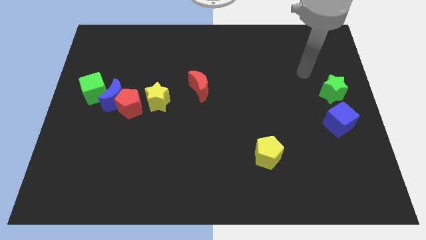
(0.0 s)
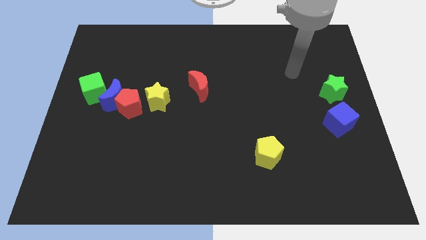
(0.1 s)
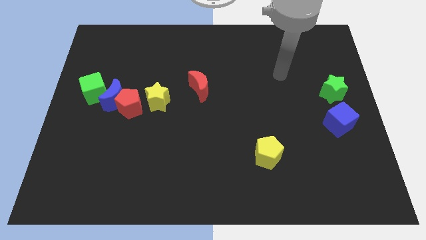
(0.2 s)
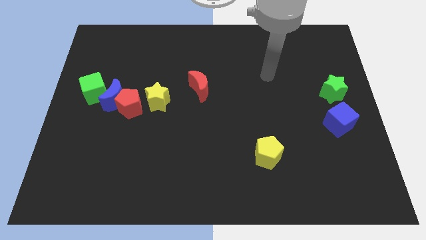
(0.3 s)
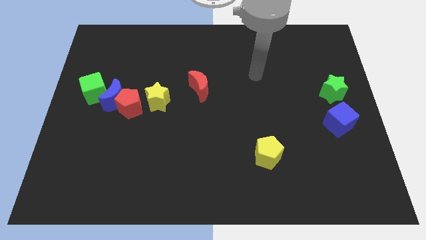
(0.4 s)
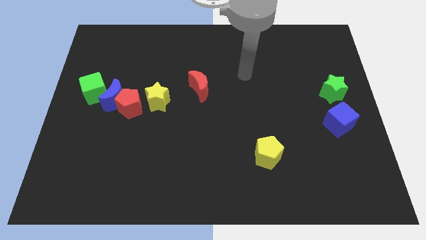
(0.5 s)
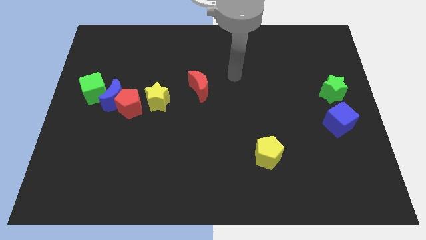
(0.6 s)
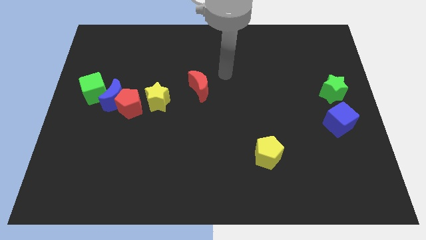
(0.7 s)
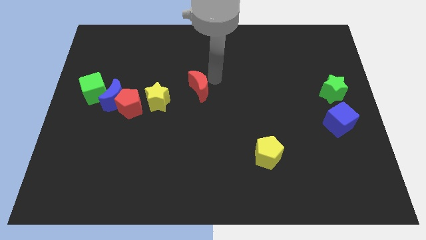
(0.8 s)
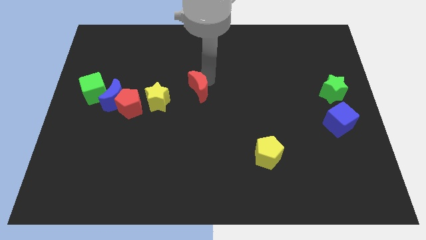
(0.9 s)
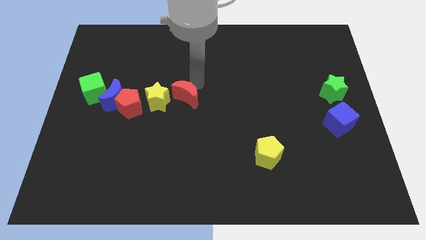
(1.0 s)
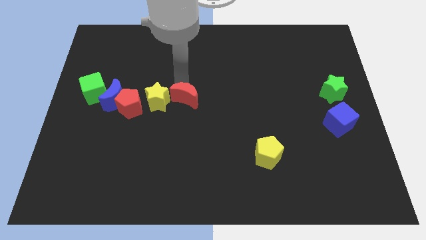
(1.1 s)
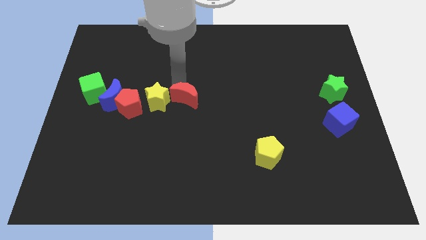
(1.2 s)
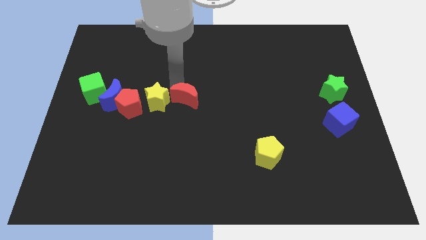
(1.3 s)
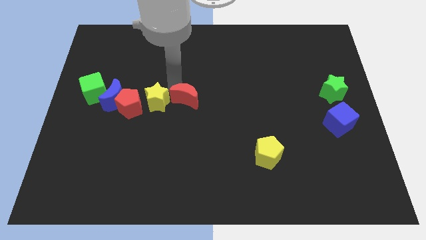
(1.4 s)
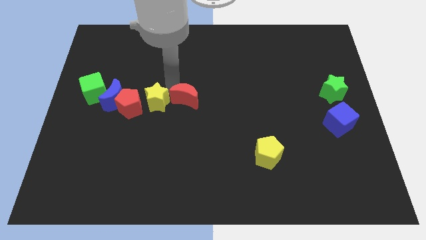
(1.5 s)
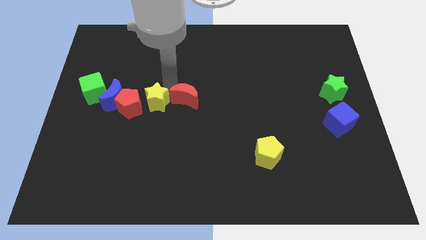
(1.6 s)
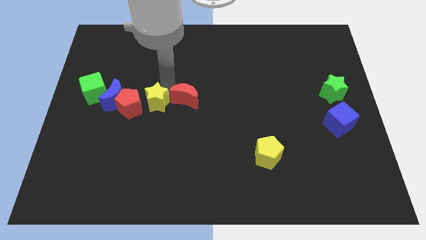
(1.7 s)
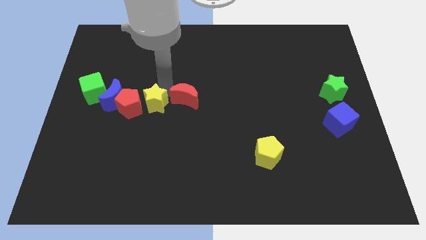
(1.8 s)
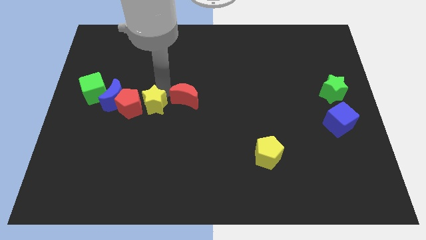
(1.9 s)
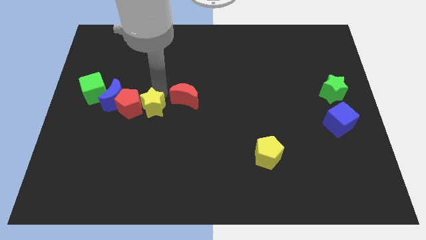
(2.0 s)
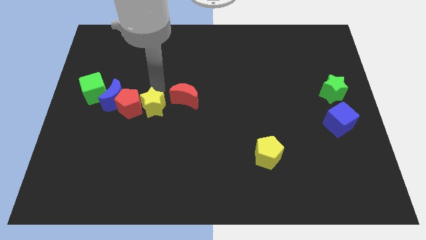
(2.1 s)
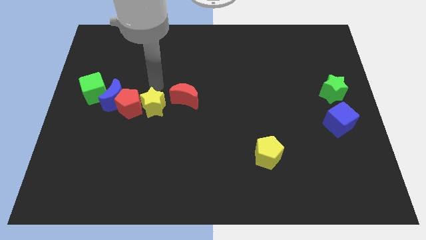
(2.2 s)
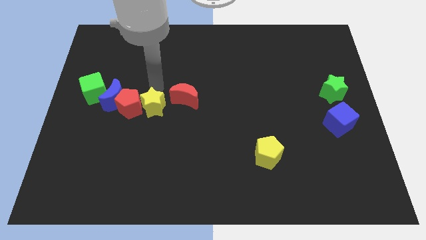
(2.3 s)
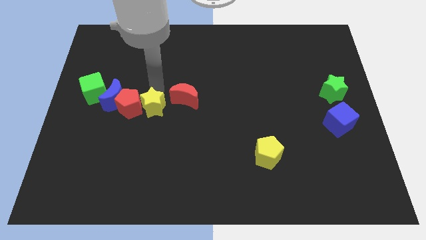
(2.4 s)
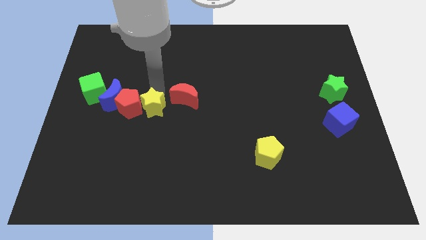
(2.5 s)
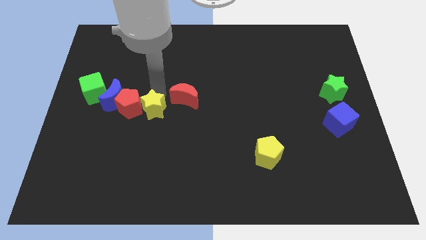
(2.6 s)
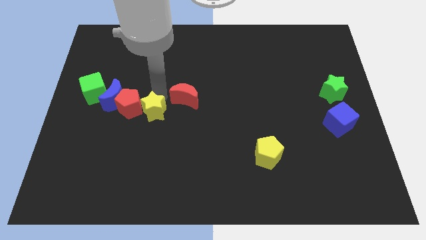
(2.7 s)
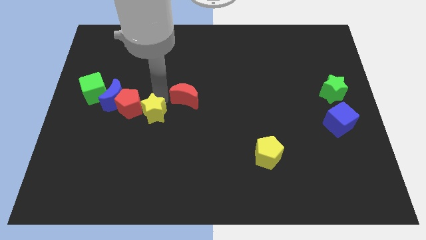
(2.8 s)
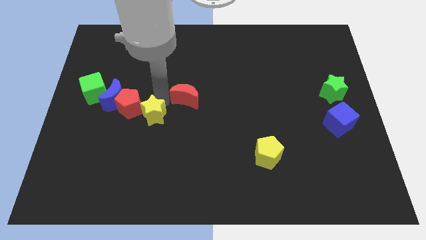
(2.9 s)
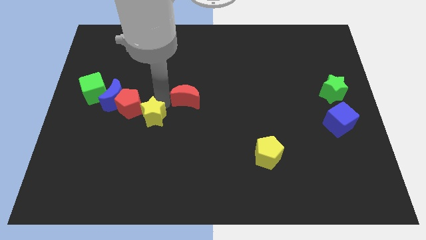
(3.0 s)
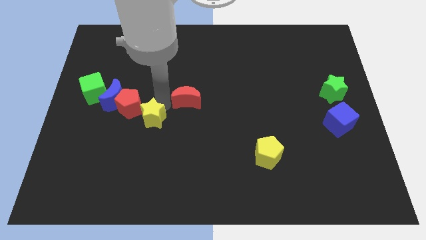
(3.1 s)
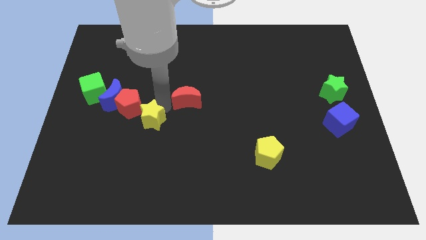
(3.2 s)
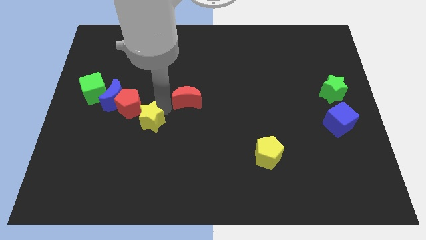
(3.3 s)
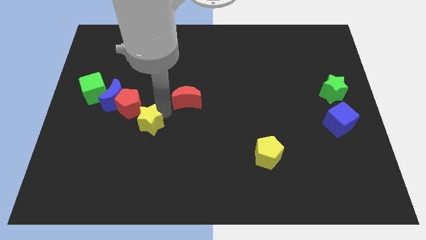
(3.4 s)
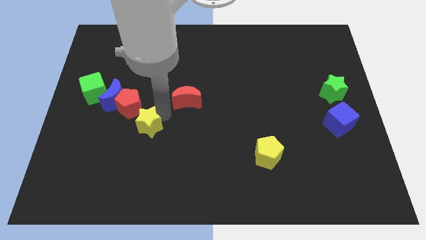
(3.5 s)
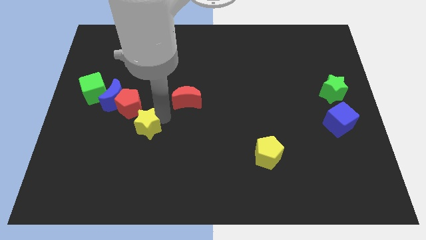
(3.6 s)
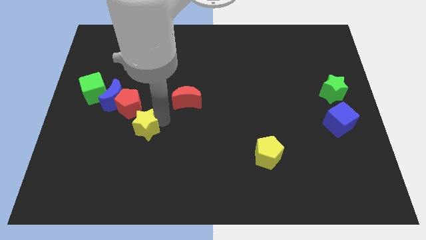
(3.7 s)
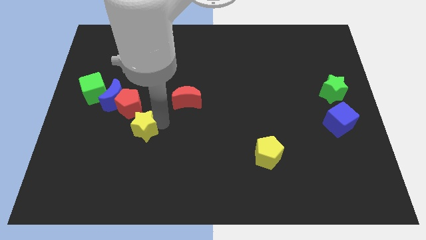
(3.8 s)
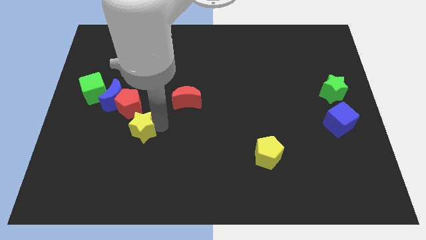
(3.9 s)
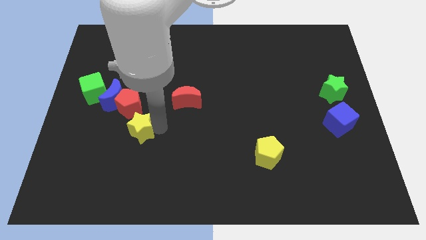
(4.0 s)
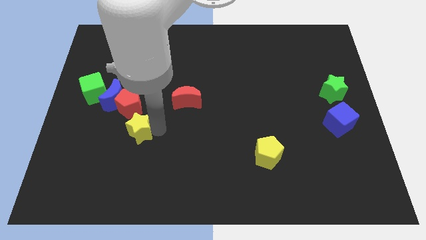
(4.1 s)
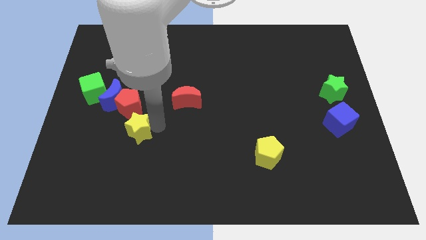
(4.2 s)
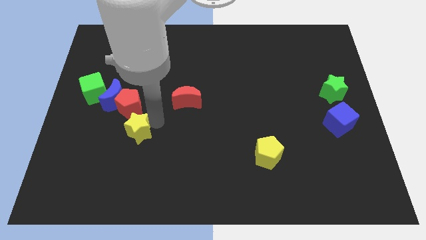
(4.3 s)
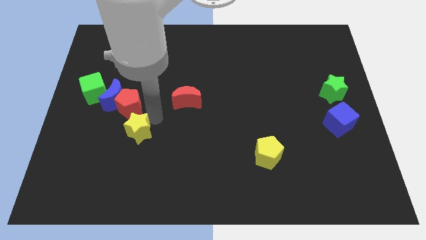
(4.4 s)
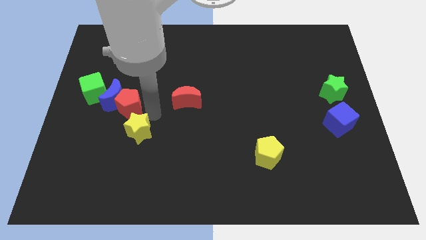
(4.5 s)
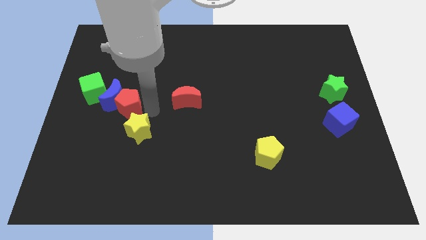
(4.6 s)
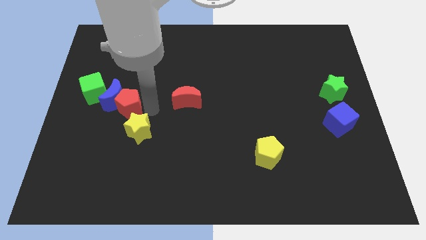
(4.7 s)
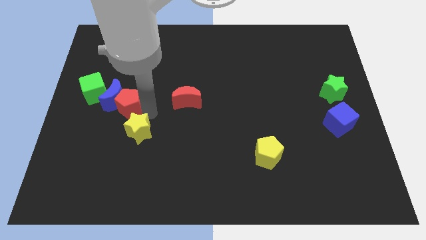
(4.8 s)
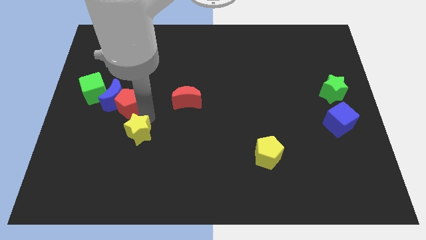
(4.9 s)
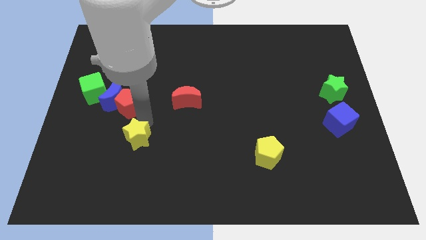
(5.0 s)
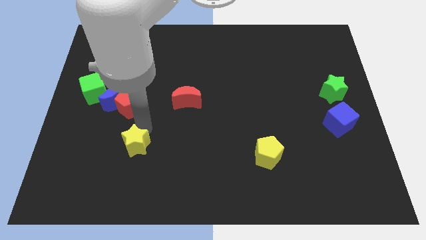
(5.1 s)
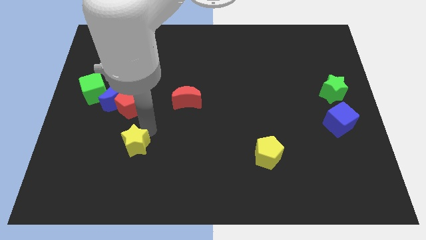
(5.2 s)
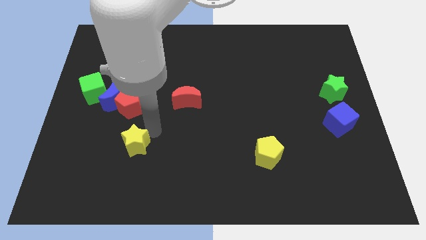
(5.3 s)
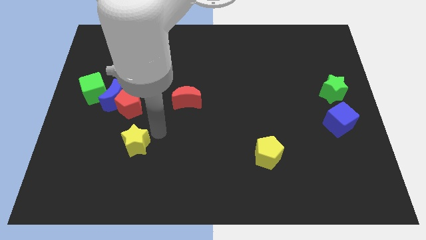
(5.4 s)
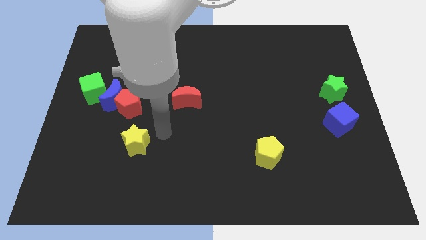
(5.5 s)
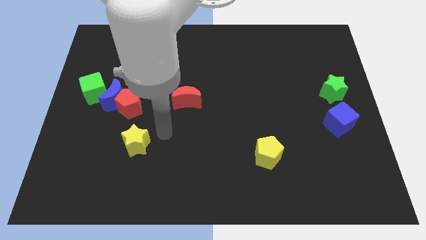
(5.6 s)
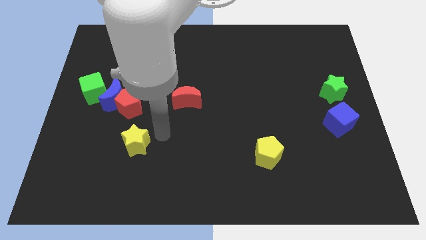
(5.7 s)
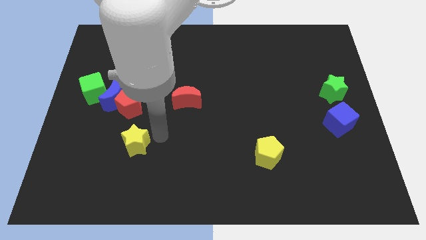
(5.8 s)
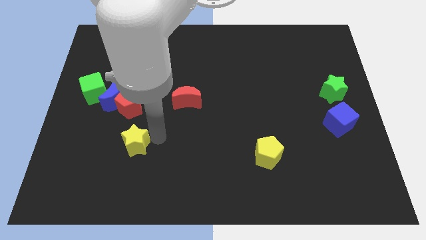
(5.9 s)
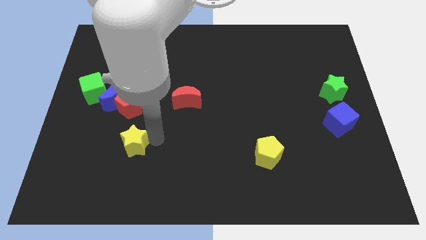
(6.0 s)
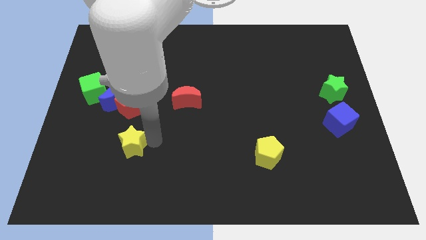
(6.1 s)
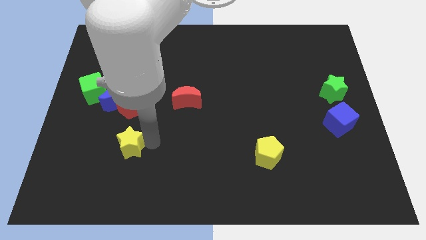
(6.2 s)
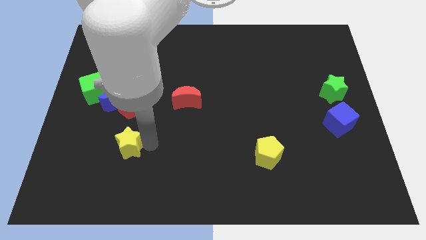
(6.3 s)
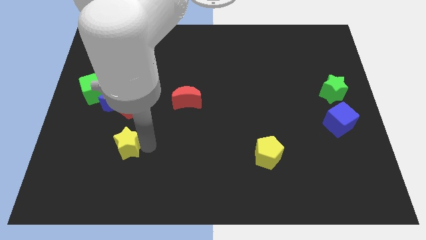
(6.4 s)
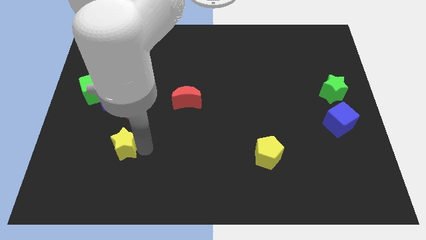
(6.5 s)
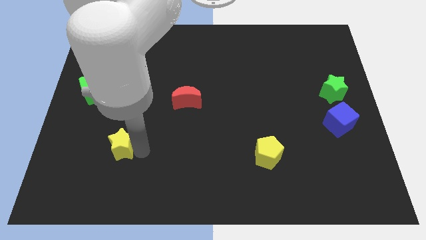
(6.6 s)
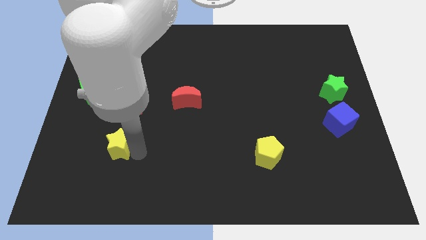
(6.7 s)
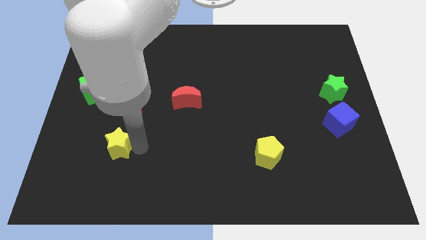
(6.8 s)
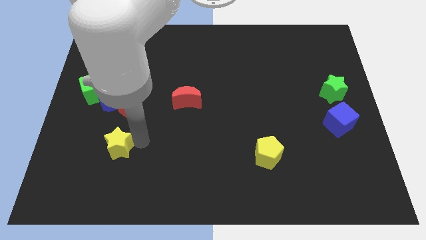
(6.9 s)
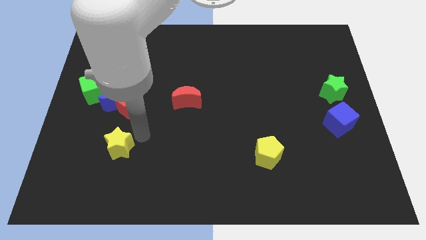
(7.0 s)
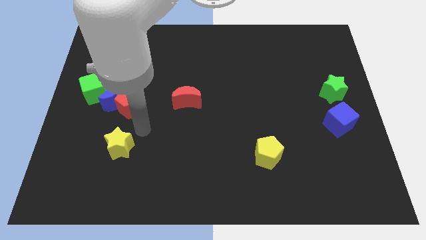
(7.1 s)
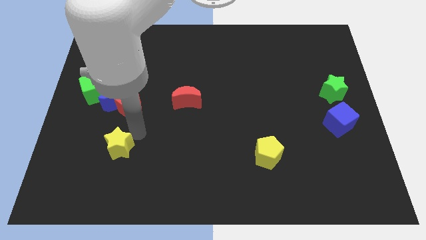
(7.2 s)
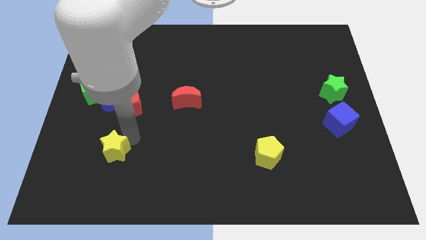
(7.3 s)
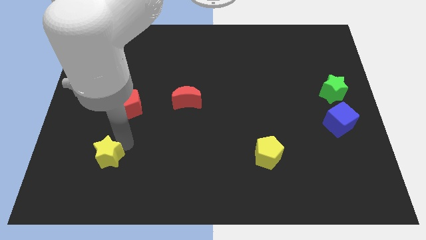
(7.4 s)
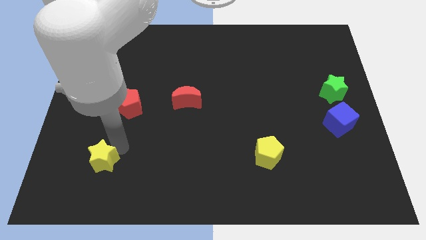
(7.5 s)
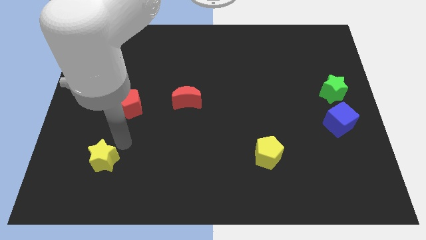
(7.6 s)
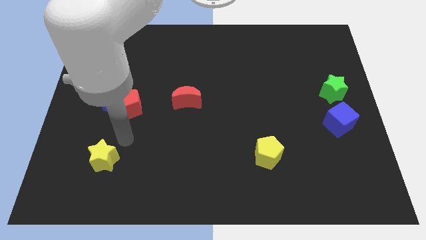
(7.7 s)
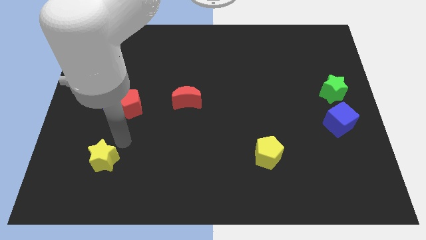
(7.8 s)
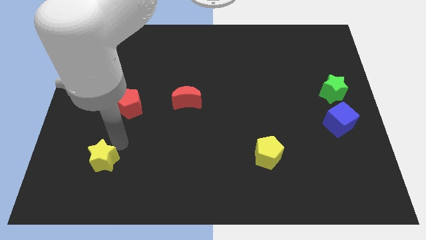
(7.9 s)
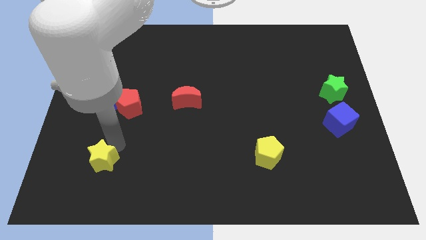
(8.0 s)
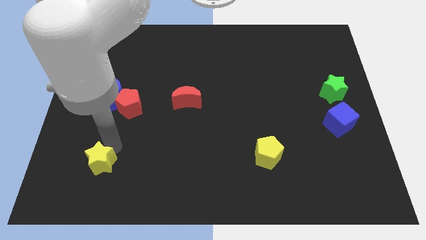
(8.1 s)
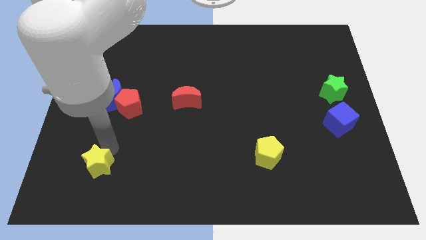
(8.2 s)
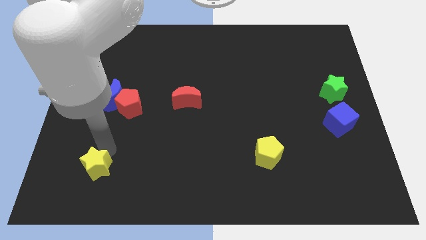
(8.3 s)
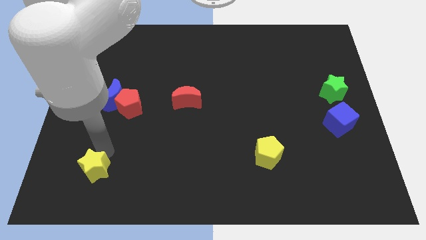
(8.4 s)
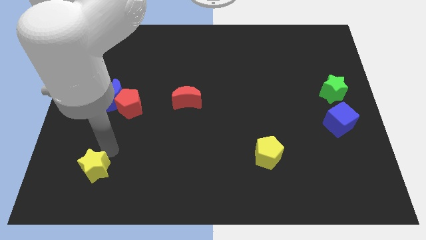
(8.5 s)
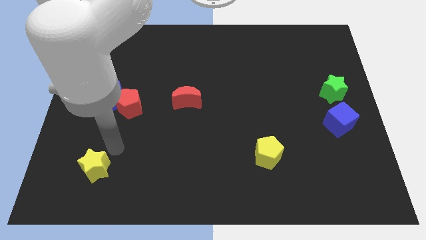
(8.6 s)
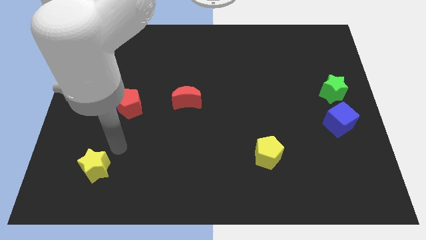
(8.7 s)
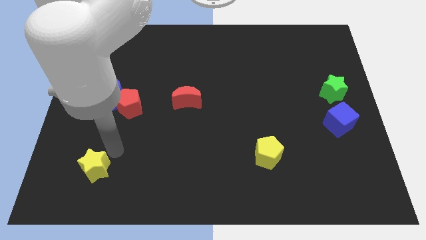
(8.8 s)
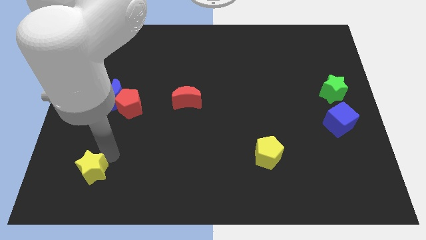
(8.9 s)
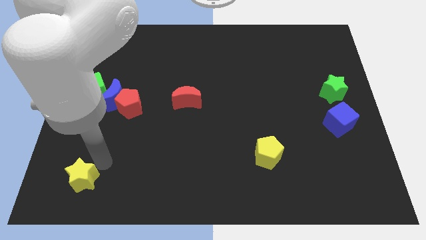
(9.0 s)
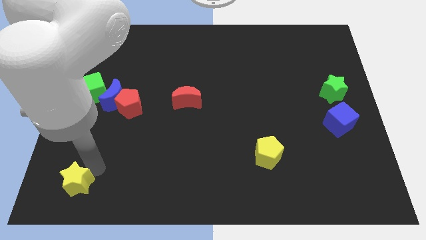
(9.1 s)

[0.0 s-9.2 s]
put the yellow star to the bottom left of the board
